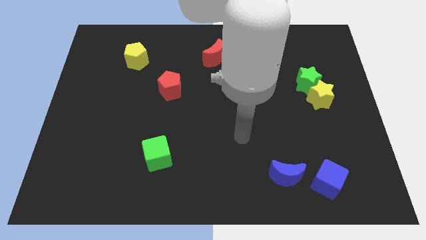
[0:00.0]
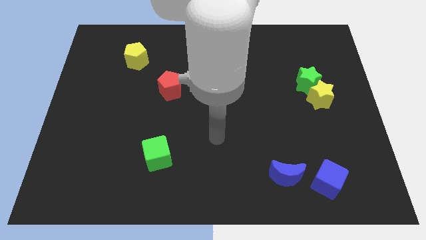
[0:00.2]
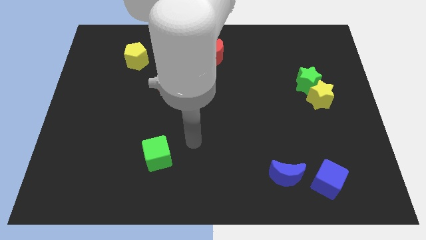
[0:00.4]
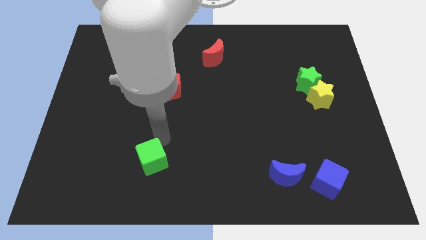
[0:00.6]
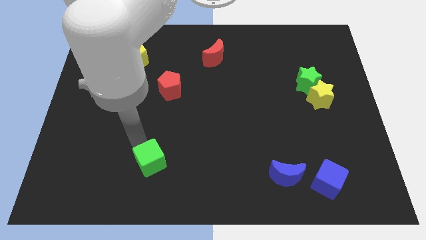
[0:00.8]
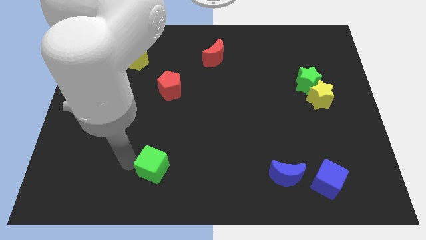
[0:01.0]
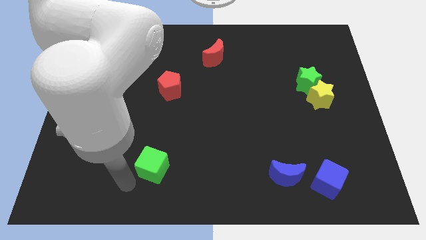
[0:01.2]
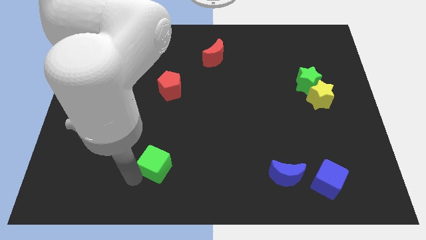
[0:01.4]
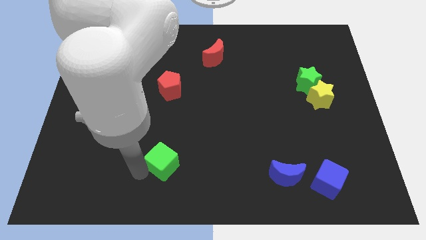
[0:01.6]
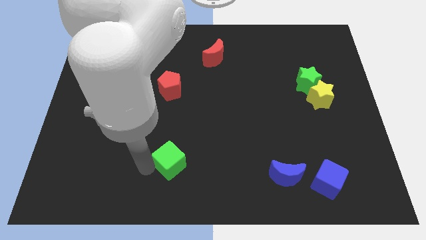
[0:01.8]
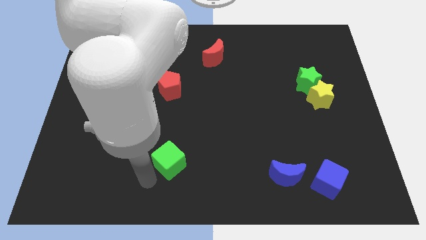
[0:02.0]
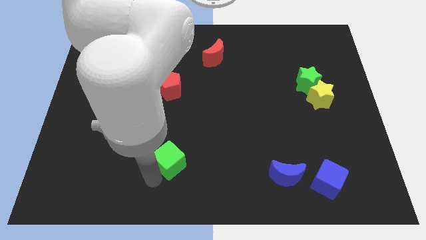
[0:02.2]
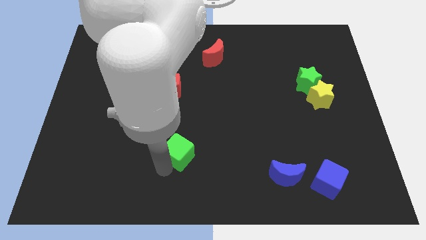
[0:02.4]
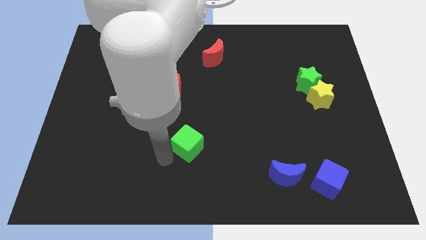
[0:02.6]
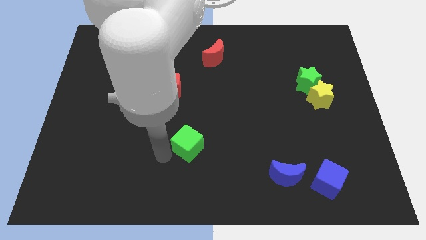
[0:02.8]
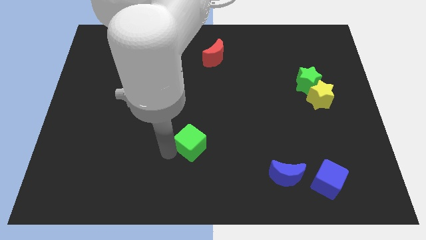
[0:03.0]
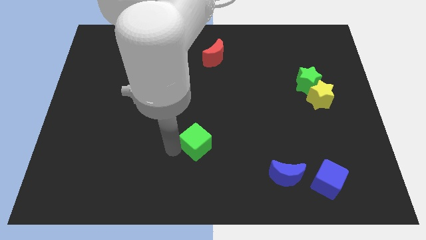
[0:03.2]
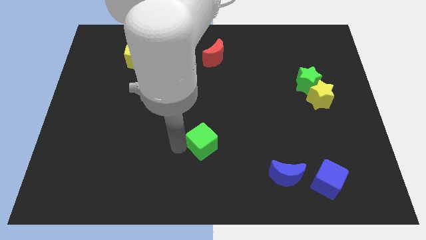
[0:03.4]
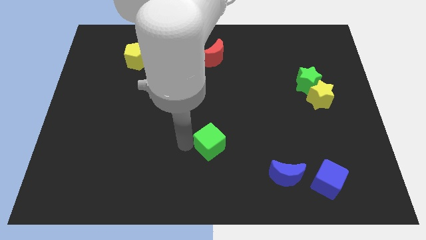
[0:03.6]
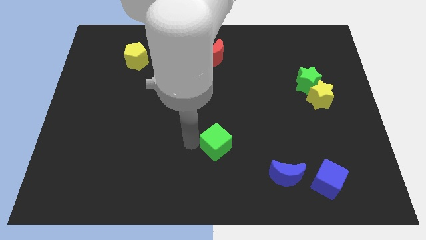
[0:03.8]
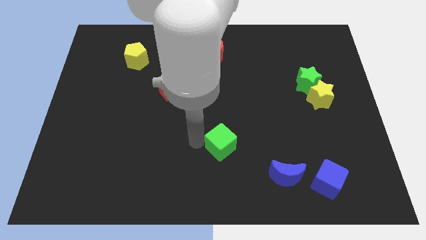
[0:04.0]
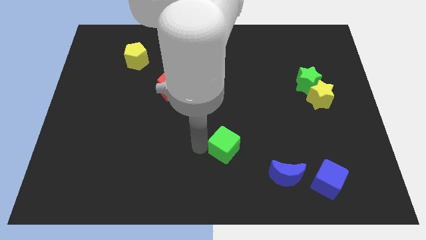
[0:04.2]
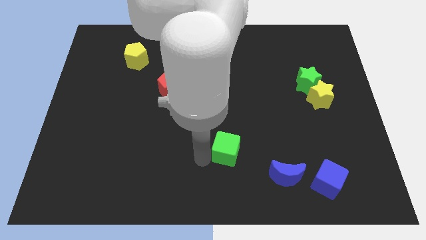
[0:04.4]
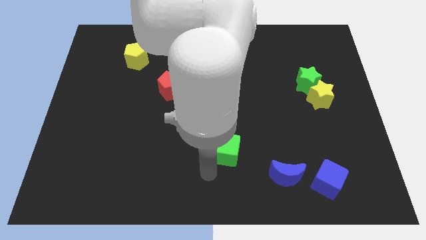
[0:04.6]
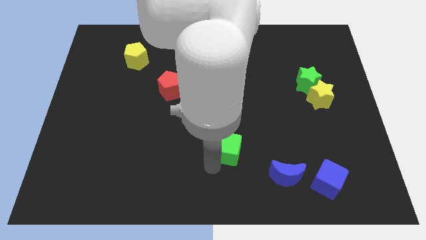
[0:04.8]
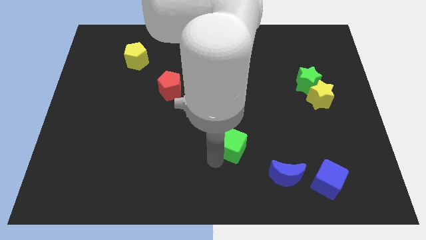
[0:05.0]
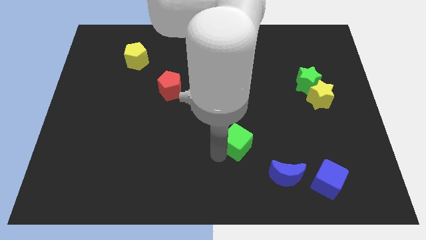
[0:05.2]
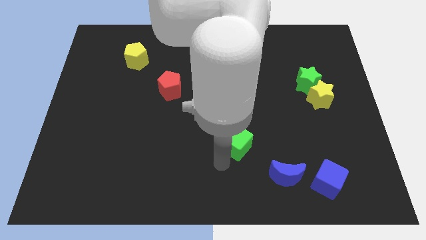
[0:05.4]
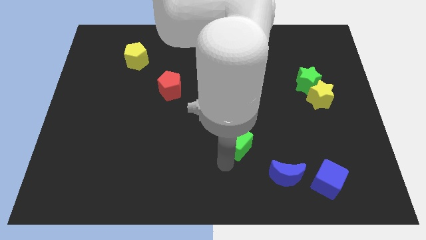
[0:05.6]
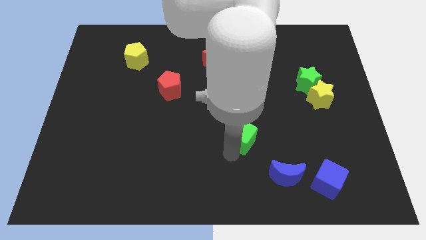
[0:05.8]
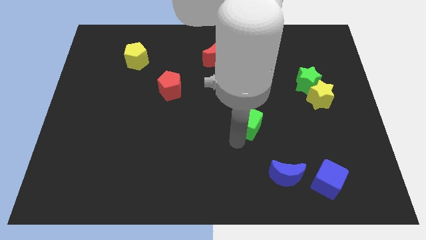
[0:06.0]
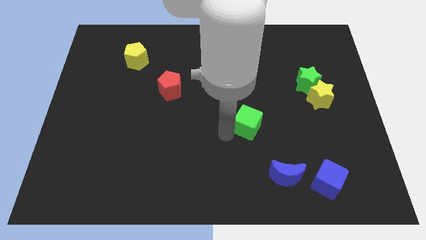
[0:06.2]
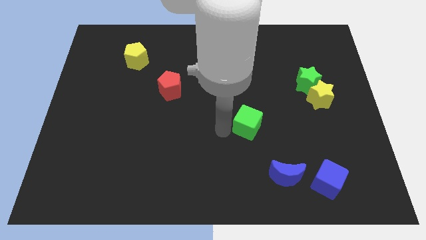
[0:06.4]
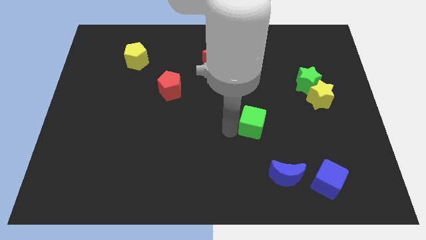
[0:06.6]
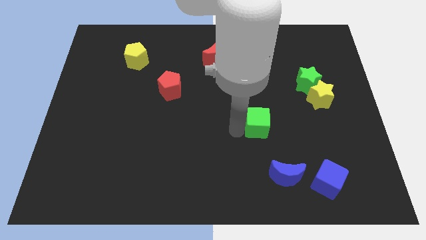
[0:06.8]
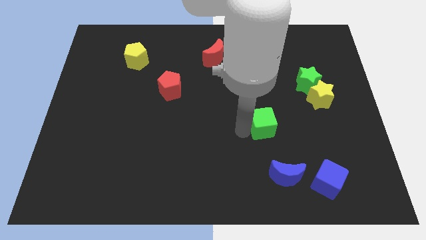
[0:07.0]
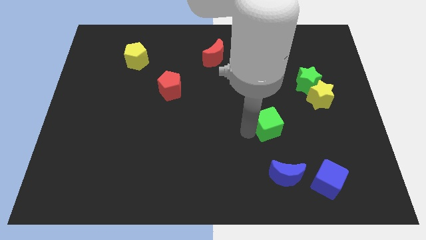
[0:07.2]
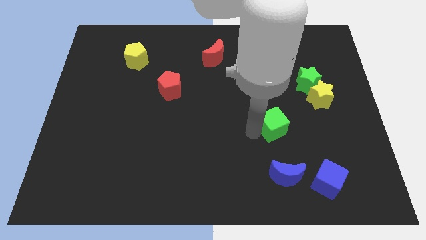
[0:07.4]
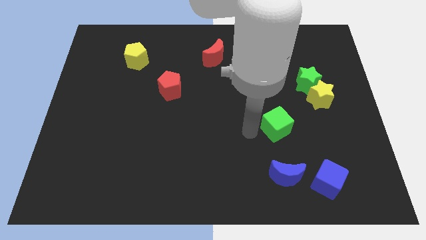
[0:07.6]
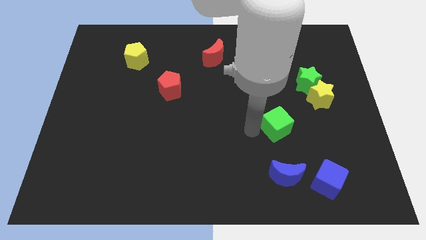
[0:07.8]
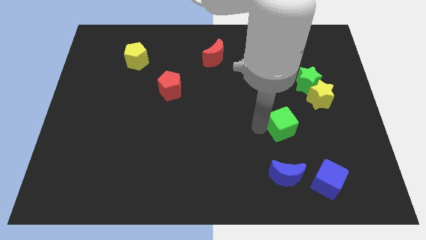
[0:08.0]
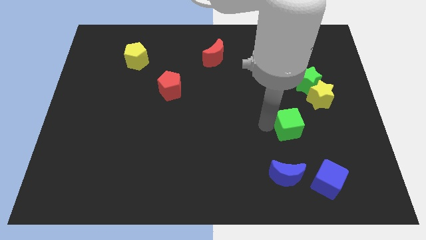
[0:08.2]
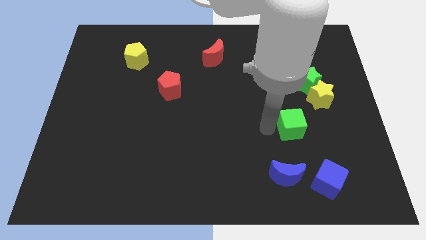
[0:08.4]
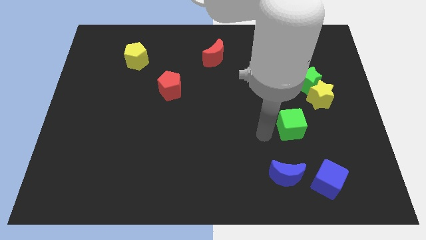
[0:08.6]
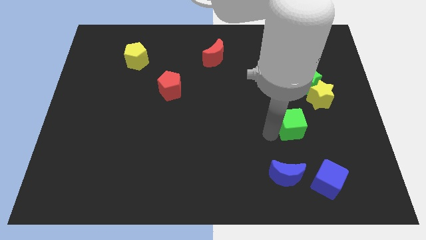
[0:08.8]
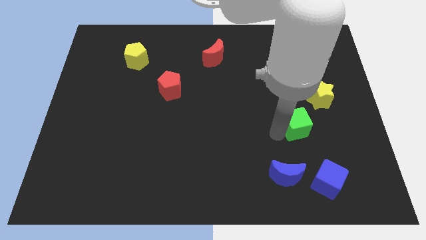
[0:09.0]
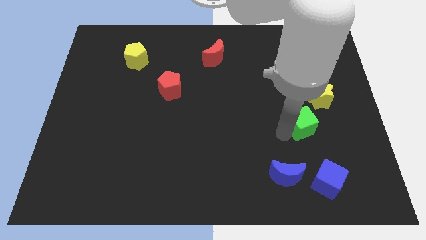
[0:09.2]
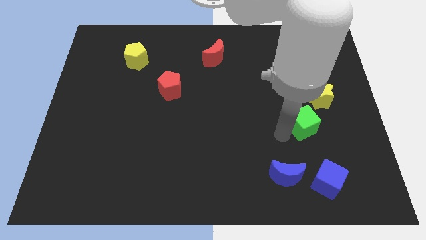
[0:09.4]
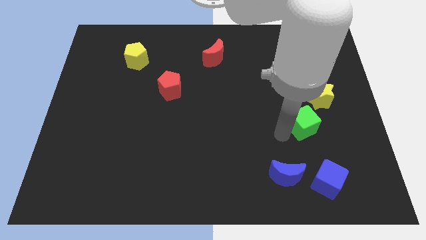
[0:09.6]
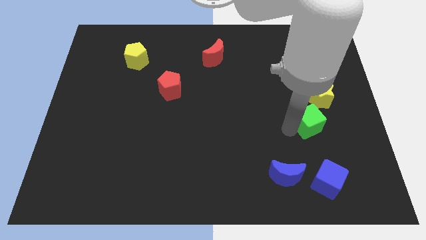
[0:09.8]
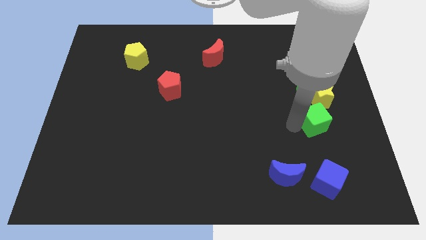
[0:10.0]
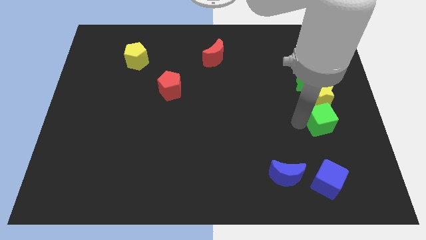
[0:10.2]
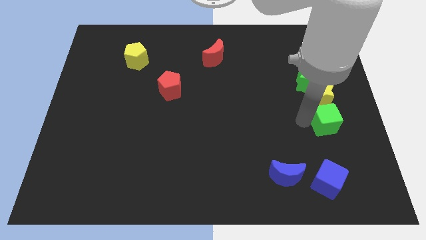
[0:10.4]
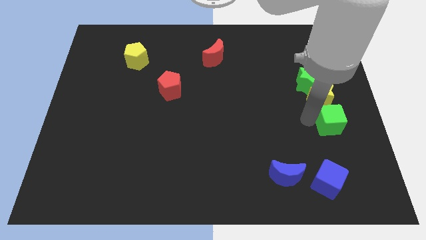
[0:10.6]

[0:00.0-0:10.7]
move the green cube to the center right

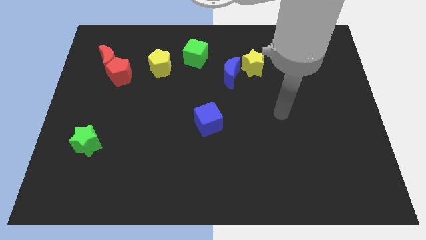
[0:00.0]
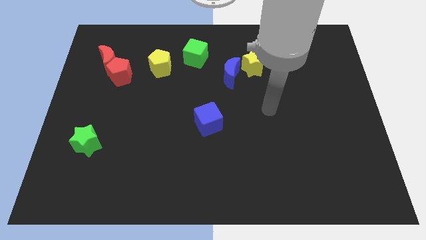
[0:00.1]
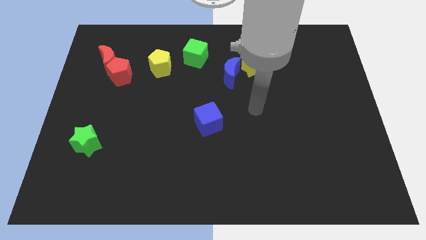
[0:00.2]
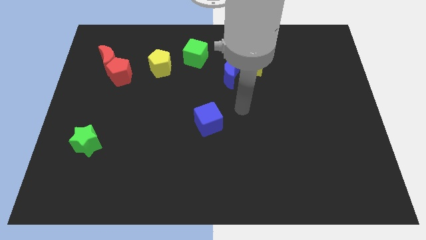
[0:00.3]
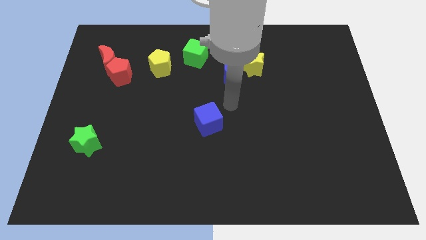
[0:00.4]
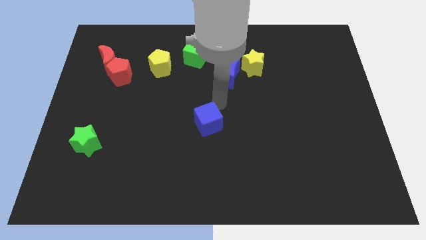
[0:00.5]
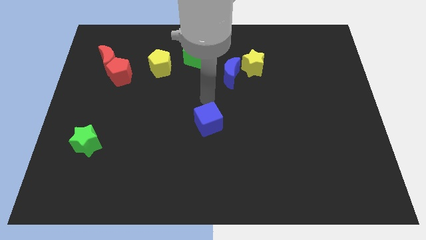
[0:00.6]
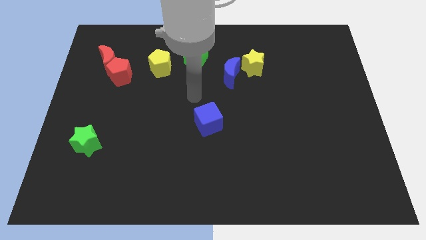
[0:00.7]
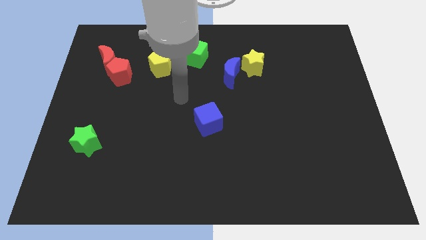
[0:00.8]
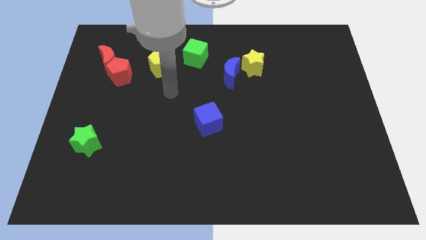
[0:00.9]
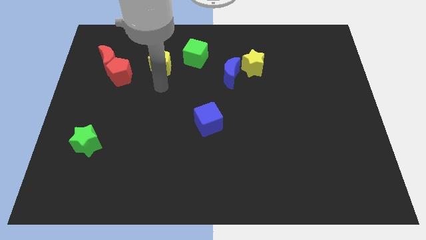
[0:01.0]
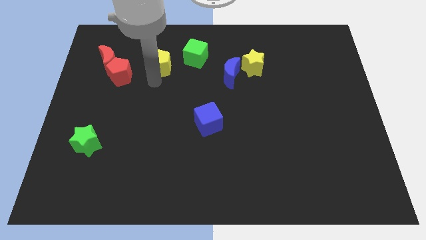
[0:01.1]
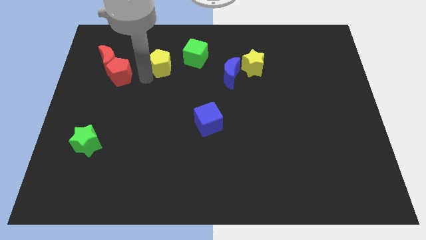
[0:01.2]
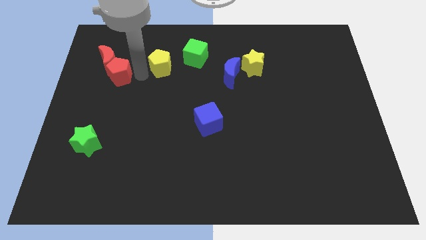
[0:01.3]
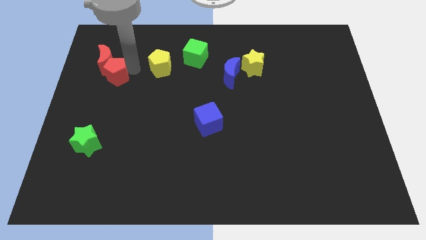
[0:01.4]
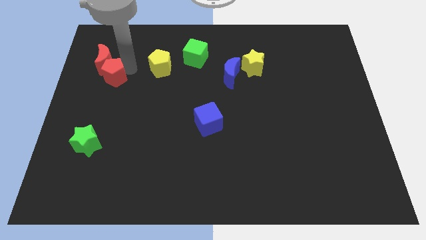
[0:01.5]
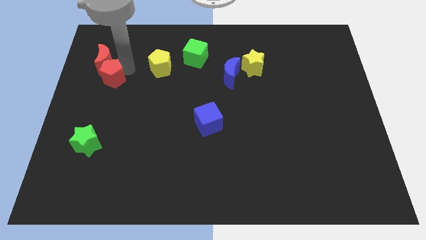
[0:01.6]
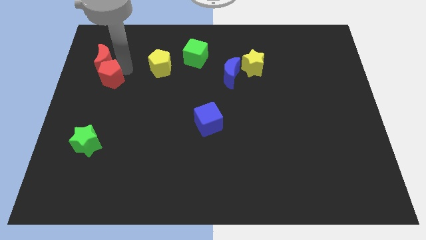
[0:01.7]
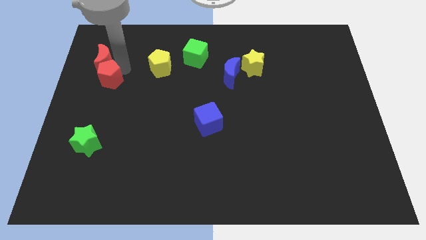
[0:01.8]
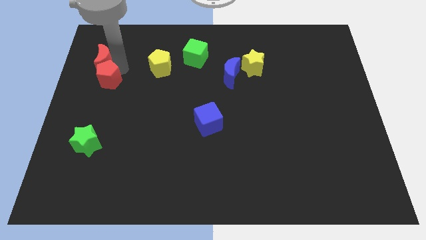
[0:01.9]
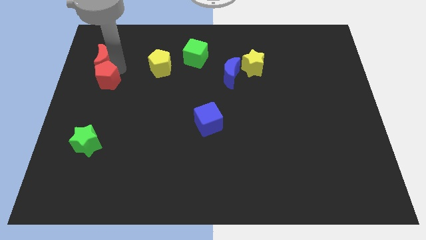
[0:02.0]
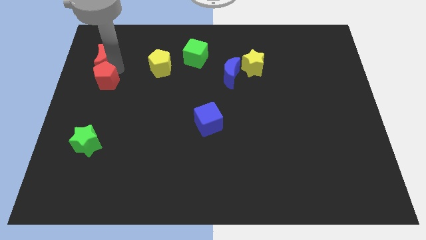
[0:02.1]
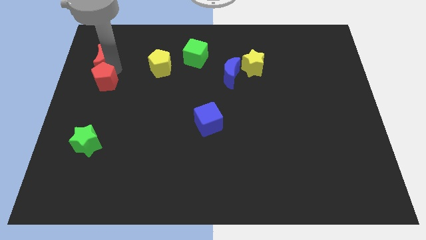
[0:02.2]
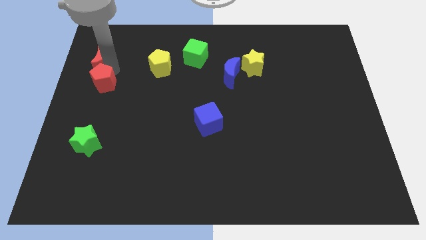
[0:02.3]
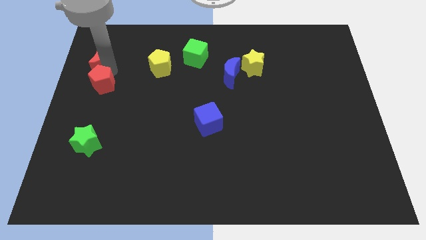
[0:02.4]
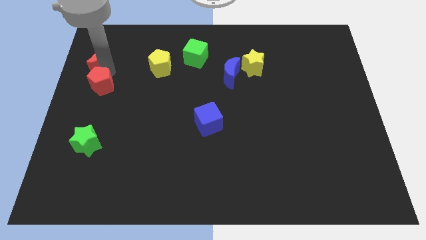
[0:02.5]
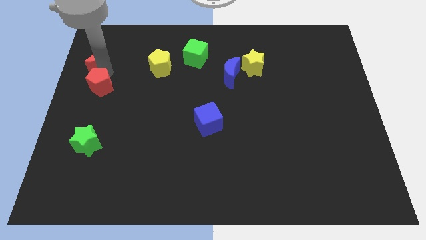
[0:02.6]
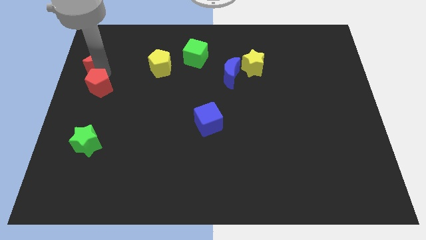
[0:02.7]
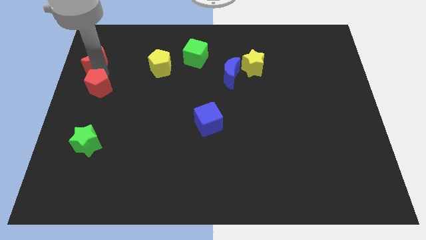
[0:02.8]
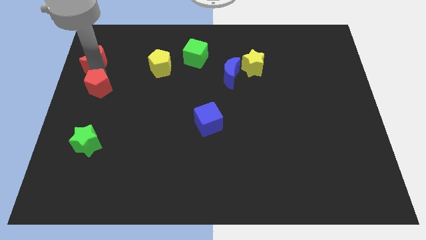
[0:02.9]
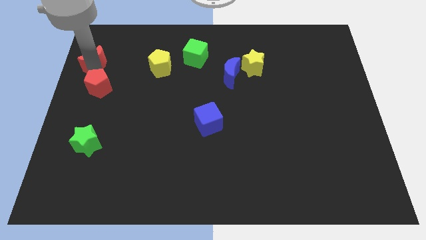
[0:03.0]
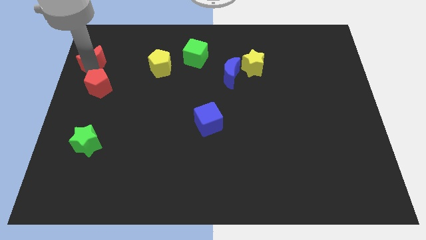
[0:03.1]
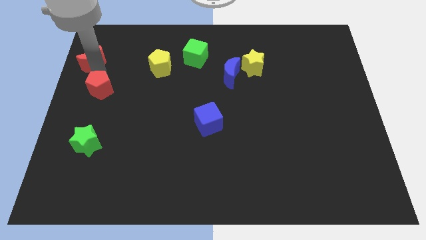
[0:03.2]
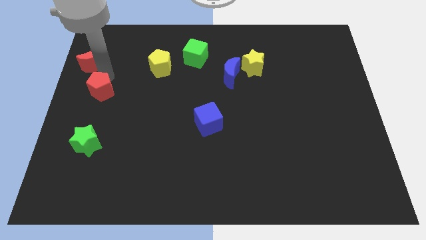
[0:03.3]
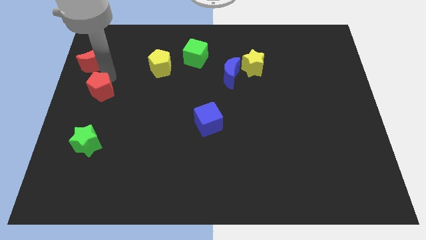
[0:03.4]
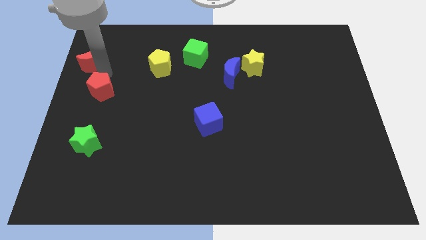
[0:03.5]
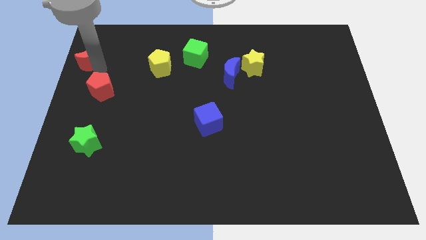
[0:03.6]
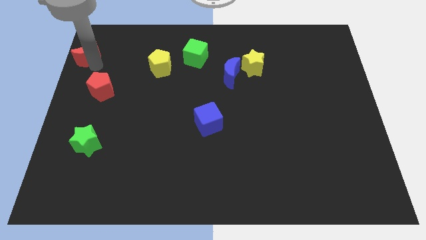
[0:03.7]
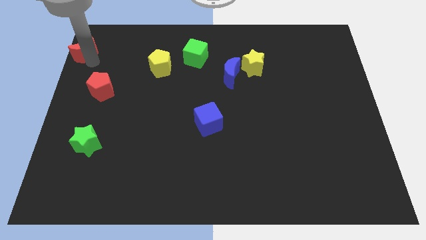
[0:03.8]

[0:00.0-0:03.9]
slide the red moon to the top left of the board
